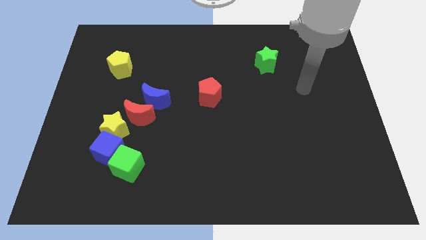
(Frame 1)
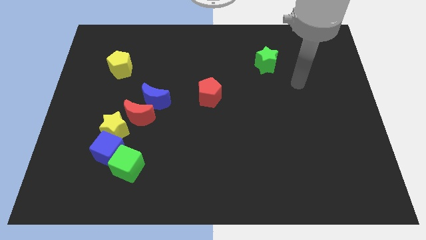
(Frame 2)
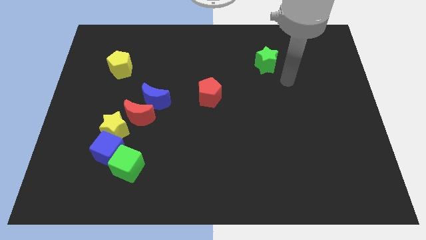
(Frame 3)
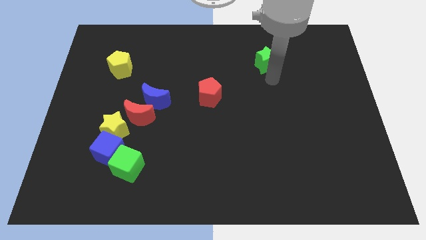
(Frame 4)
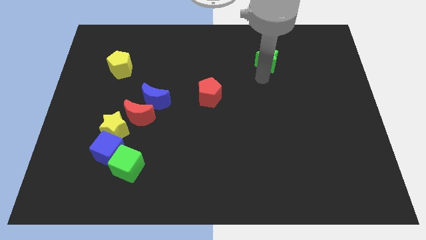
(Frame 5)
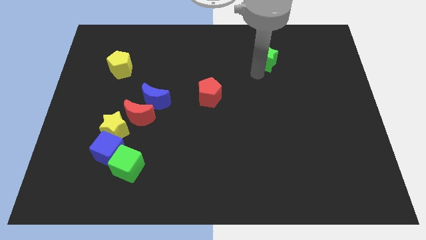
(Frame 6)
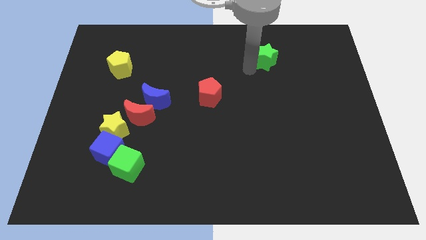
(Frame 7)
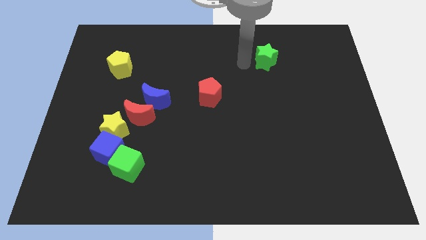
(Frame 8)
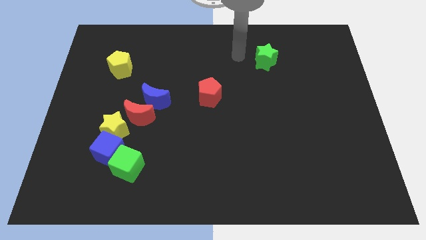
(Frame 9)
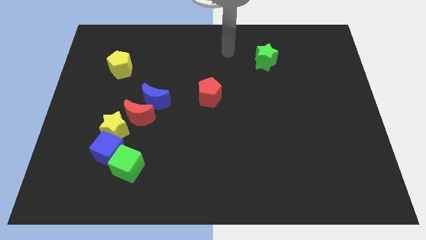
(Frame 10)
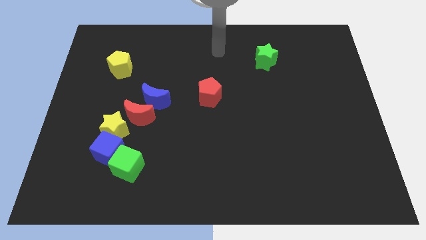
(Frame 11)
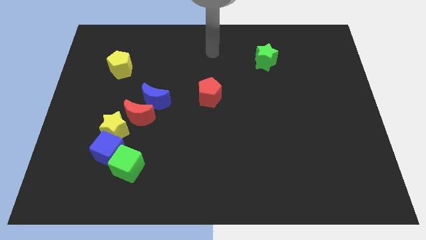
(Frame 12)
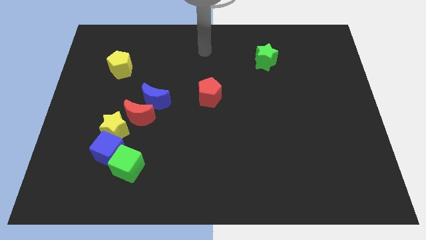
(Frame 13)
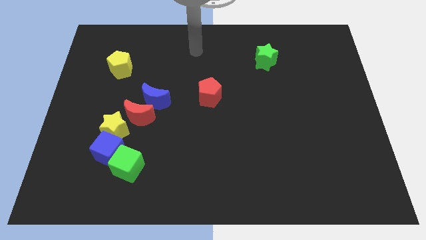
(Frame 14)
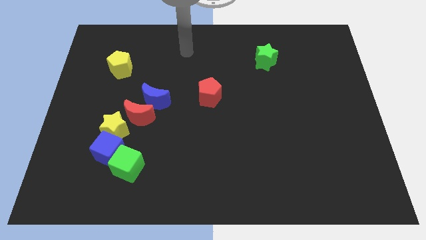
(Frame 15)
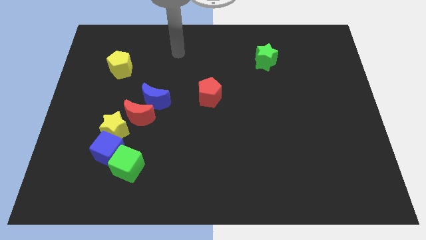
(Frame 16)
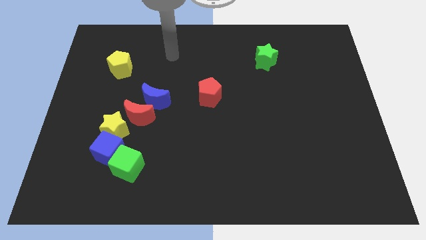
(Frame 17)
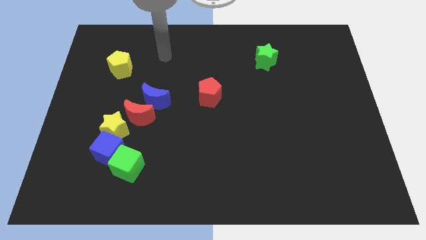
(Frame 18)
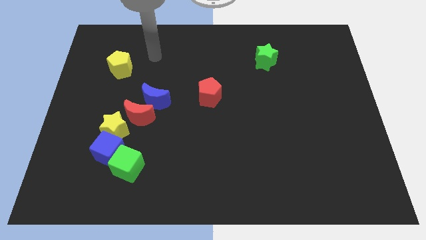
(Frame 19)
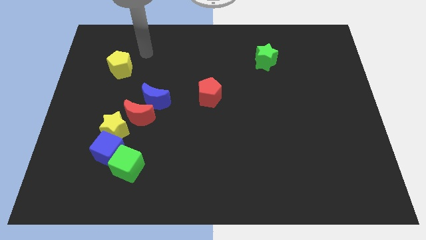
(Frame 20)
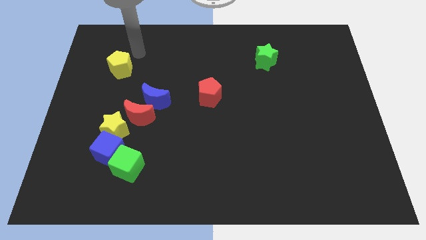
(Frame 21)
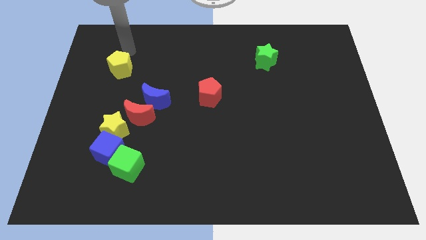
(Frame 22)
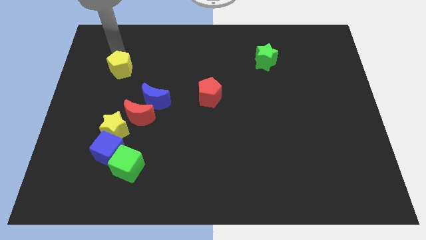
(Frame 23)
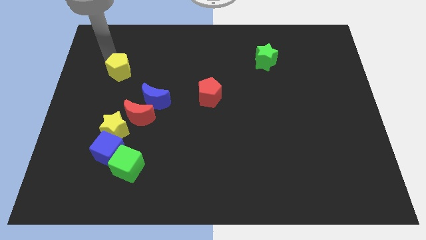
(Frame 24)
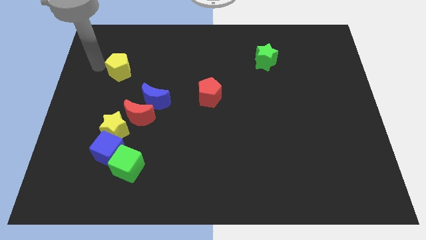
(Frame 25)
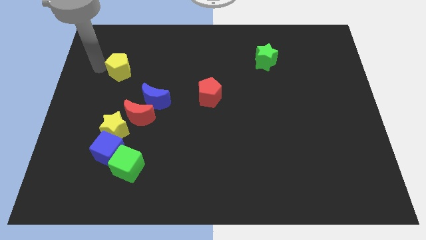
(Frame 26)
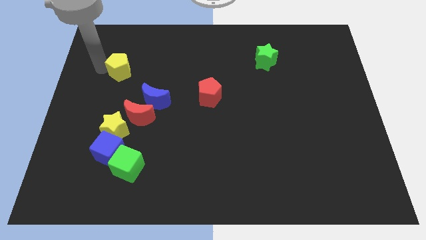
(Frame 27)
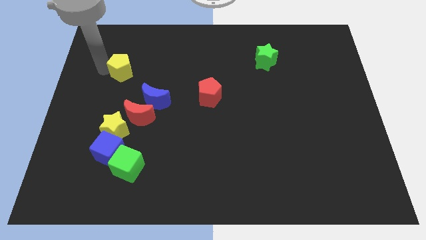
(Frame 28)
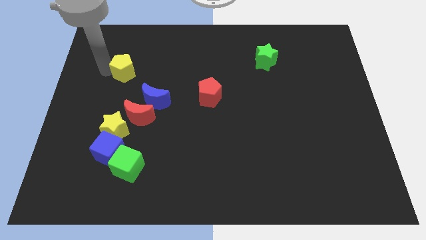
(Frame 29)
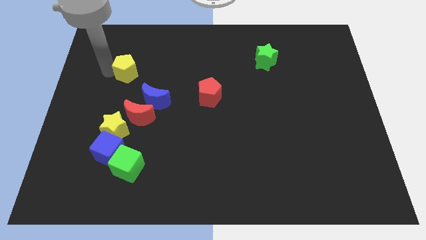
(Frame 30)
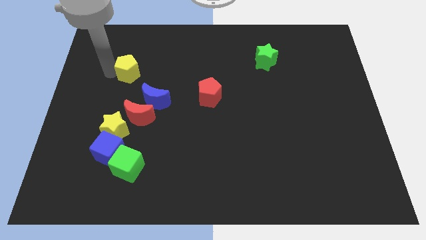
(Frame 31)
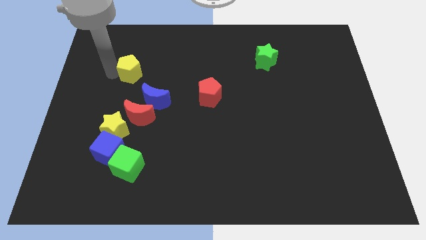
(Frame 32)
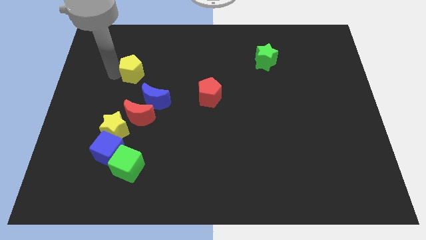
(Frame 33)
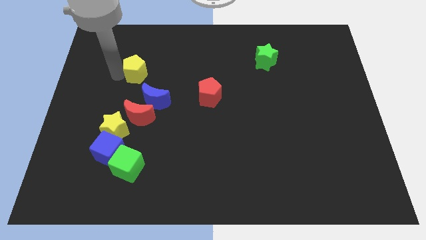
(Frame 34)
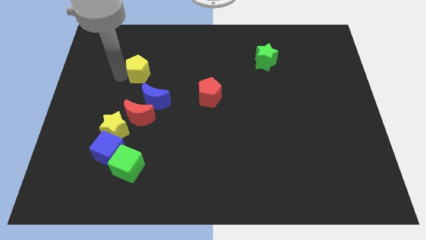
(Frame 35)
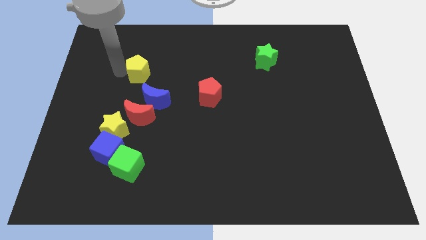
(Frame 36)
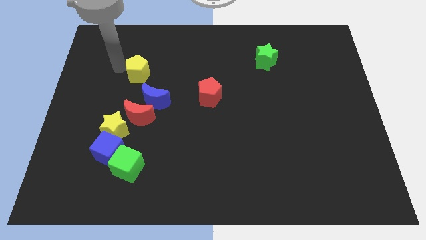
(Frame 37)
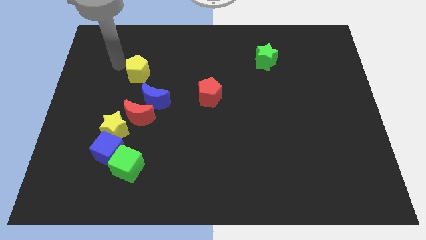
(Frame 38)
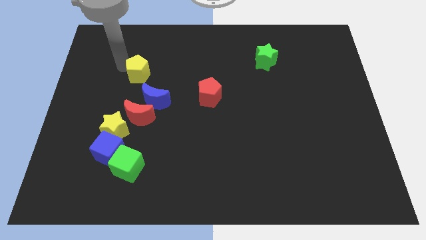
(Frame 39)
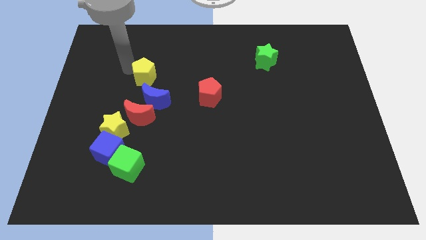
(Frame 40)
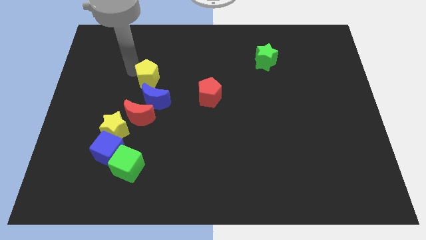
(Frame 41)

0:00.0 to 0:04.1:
slightly slide the yellow pentagon diagonally downwards and right

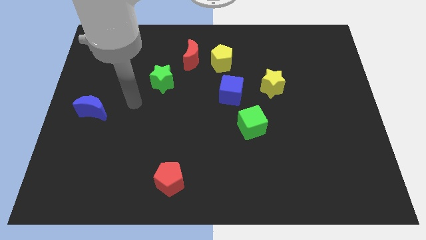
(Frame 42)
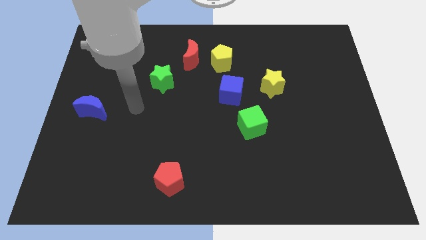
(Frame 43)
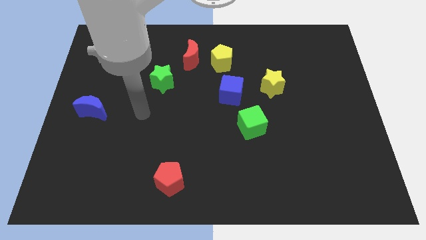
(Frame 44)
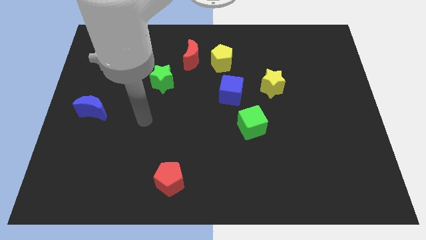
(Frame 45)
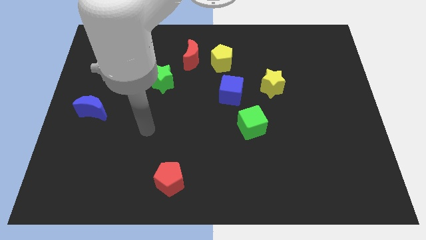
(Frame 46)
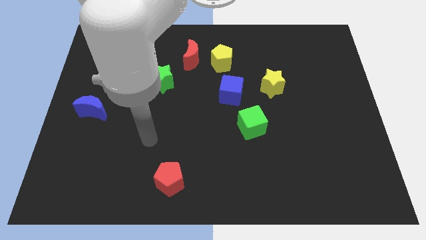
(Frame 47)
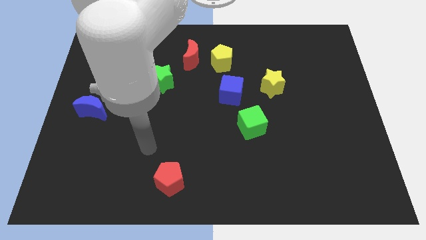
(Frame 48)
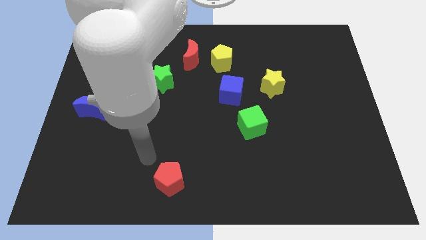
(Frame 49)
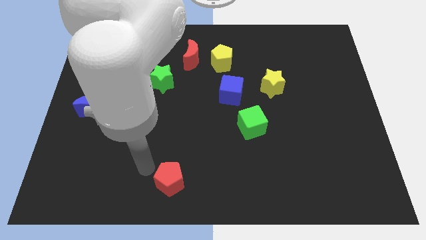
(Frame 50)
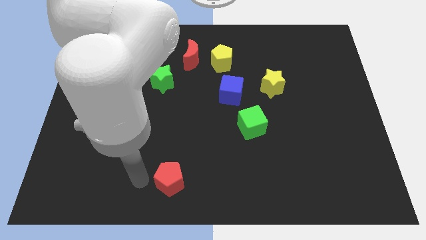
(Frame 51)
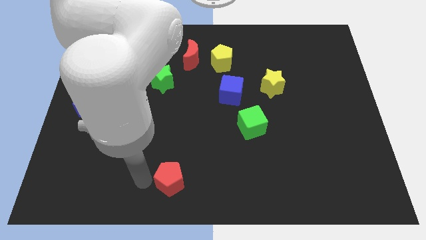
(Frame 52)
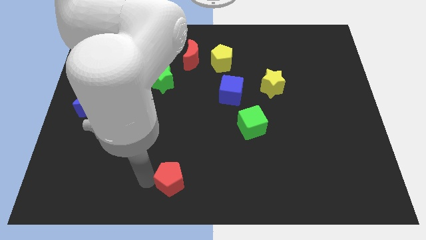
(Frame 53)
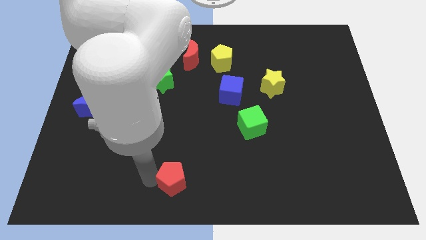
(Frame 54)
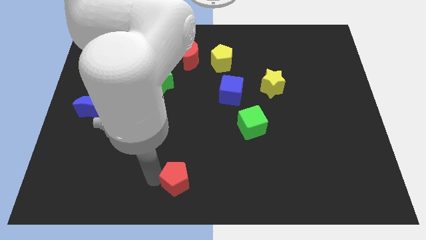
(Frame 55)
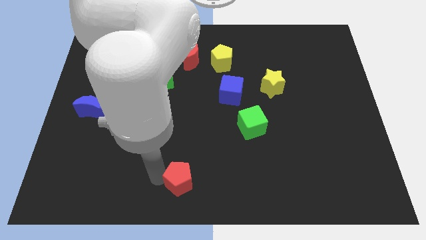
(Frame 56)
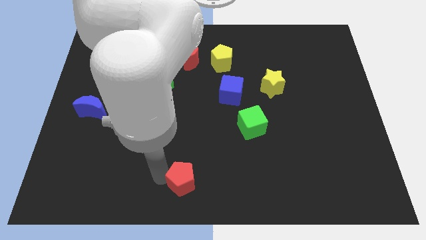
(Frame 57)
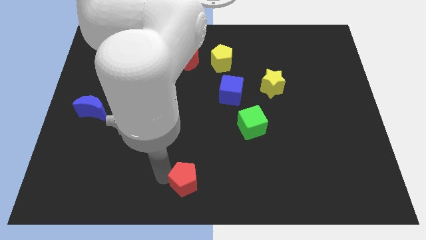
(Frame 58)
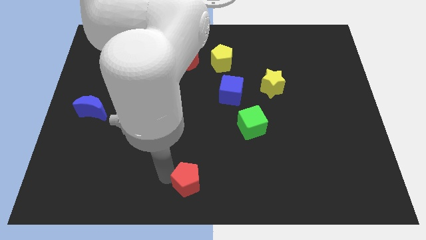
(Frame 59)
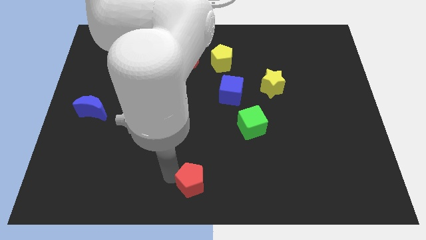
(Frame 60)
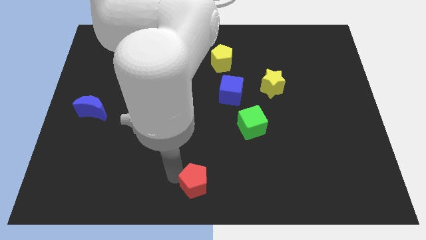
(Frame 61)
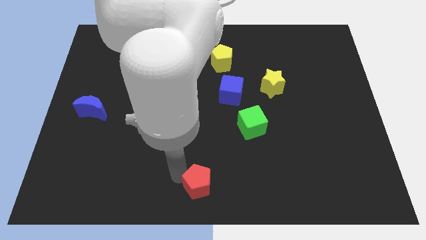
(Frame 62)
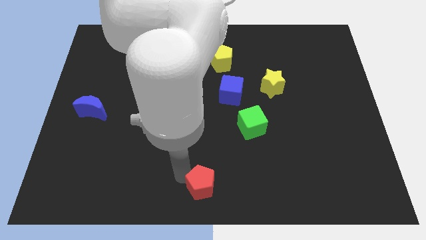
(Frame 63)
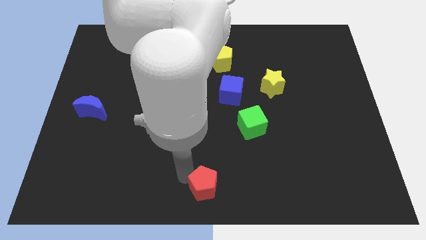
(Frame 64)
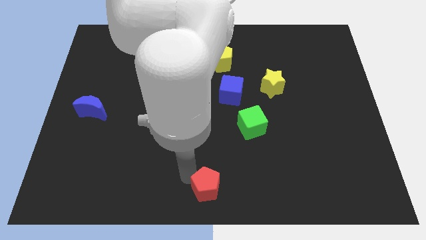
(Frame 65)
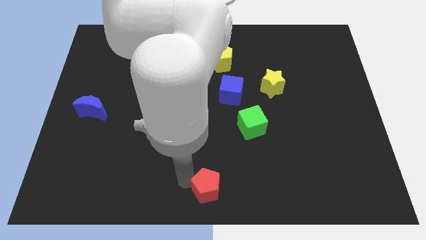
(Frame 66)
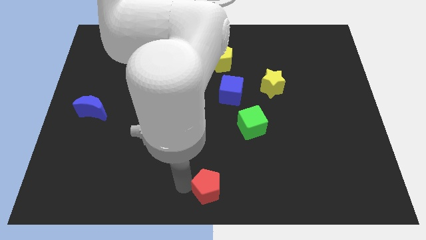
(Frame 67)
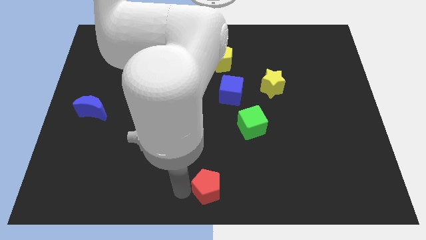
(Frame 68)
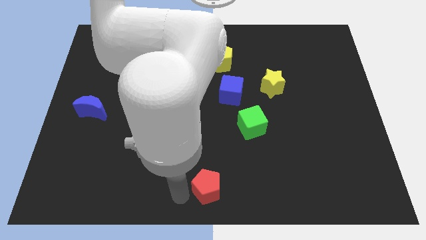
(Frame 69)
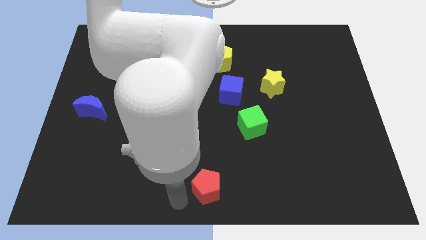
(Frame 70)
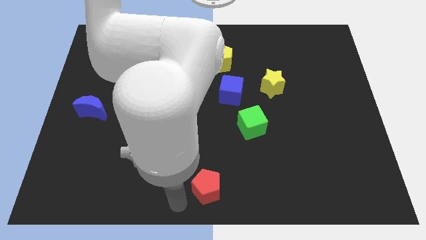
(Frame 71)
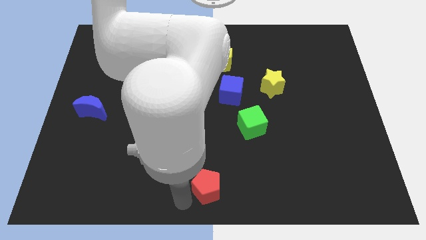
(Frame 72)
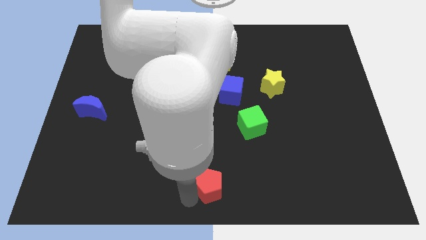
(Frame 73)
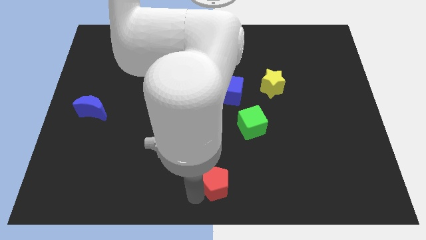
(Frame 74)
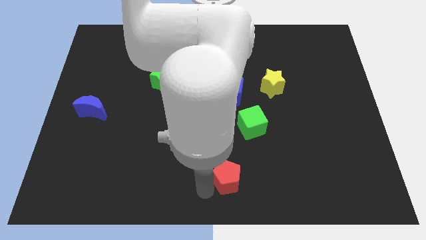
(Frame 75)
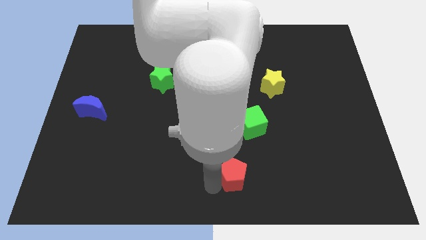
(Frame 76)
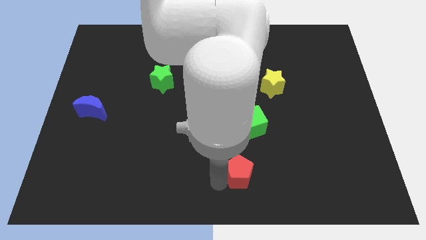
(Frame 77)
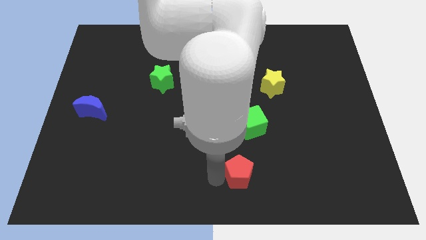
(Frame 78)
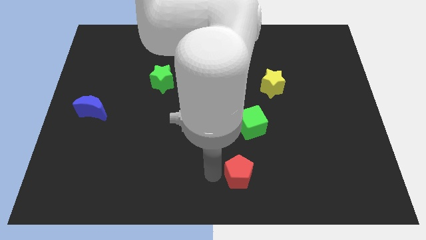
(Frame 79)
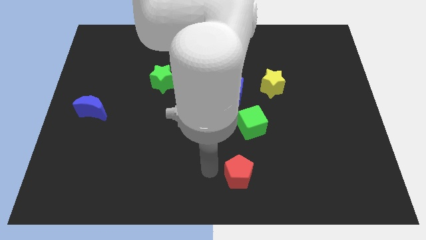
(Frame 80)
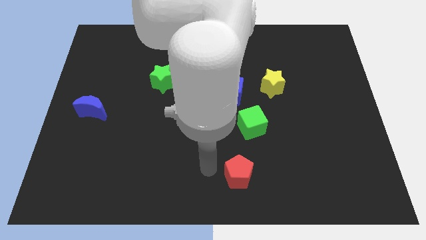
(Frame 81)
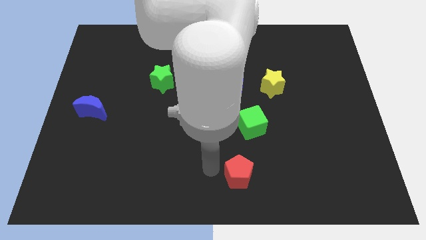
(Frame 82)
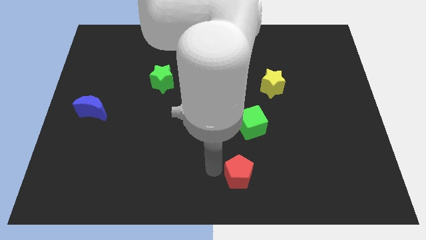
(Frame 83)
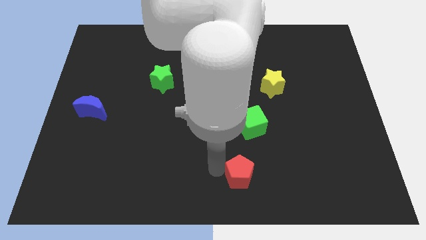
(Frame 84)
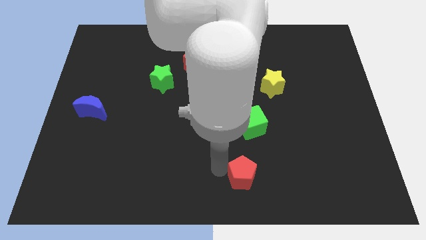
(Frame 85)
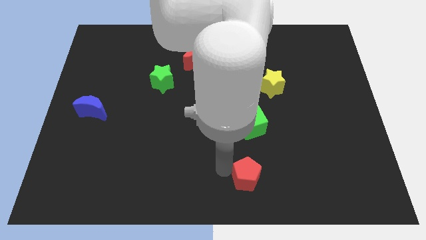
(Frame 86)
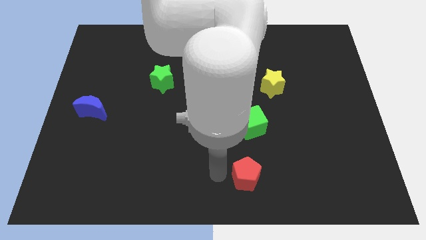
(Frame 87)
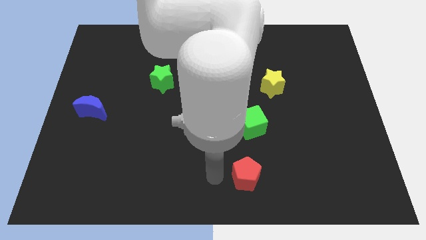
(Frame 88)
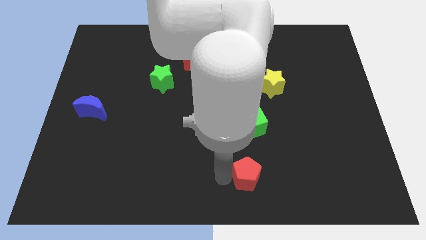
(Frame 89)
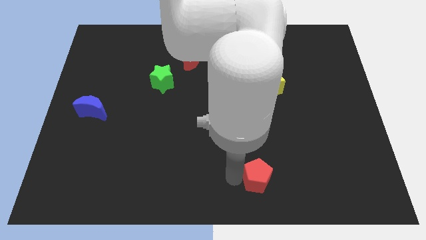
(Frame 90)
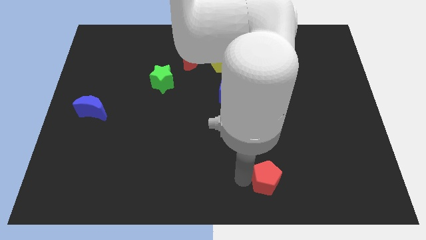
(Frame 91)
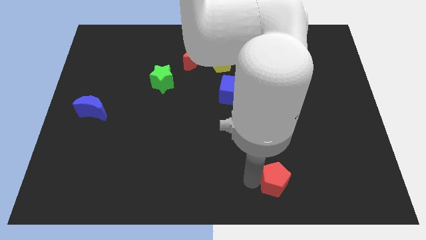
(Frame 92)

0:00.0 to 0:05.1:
push the red pentagon to the right
